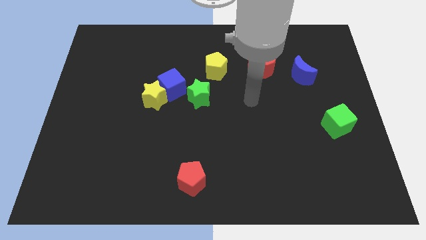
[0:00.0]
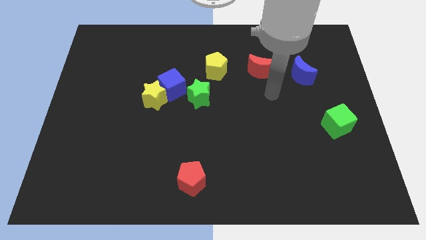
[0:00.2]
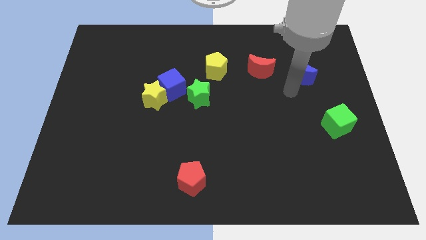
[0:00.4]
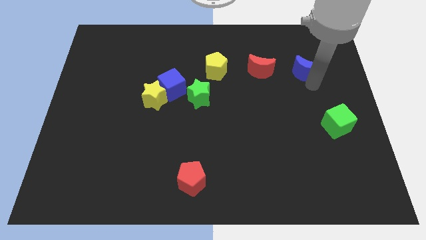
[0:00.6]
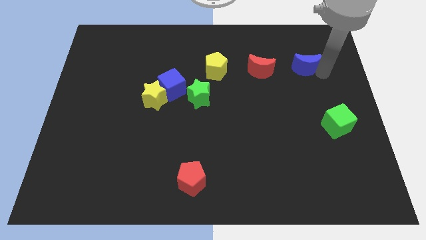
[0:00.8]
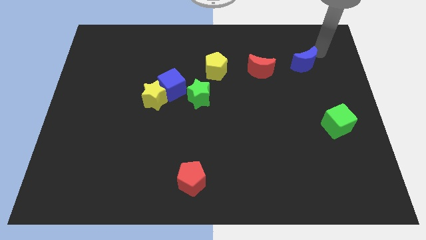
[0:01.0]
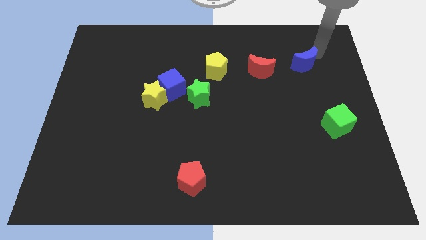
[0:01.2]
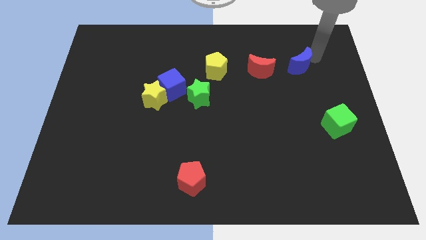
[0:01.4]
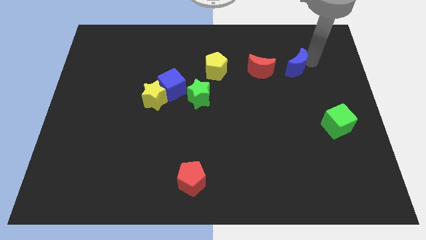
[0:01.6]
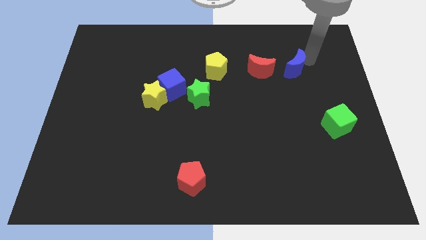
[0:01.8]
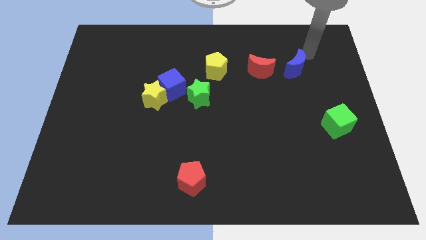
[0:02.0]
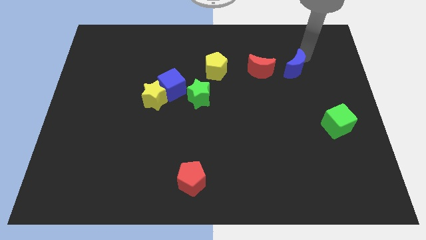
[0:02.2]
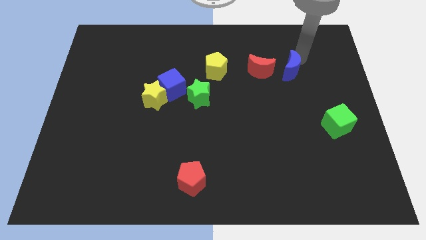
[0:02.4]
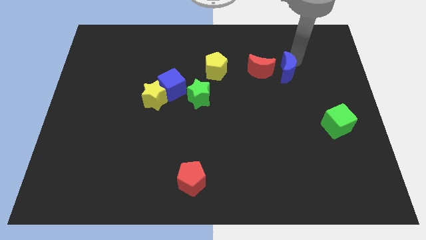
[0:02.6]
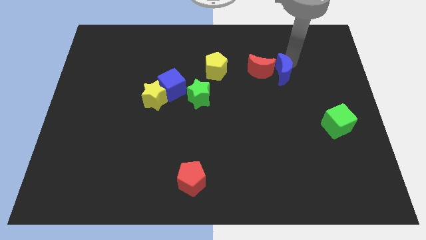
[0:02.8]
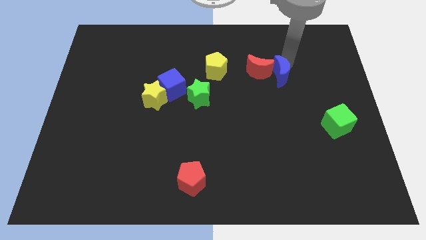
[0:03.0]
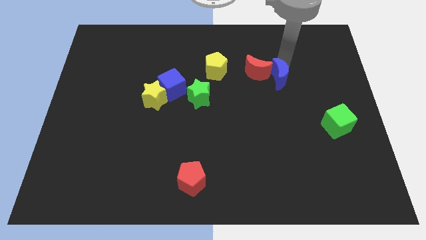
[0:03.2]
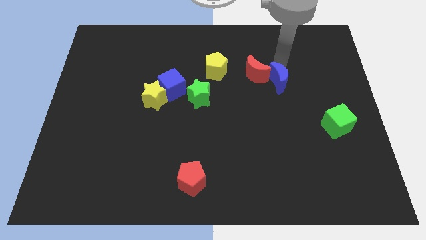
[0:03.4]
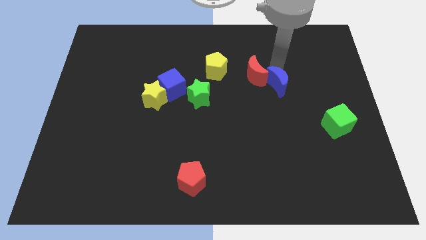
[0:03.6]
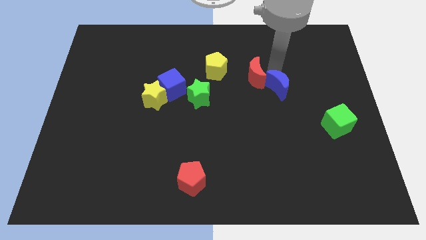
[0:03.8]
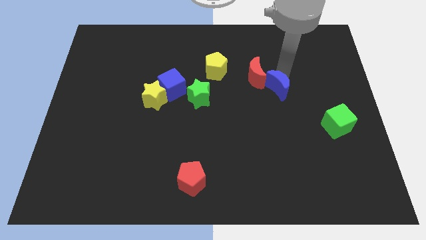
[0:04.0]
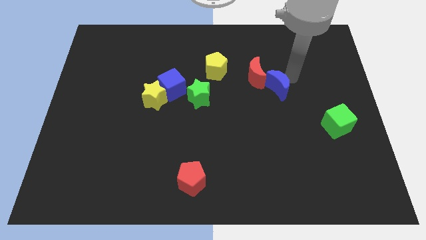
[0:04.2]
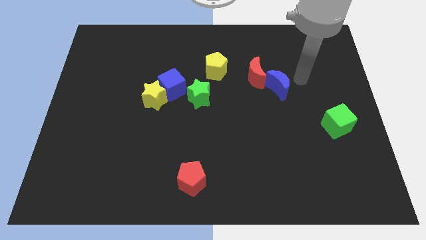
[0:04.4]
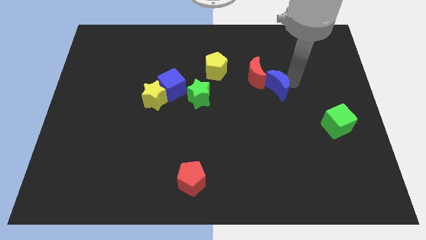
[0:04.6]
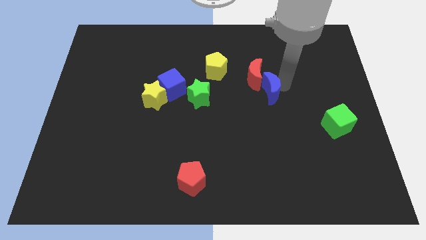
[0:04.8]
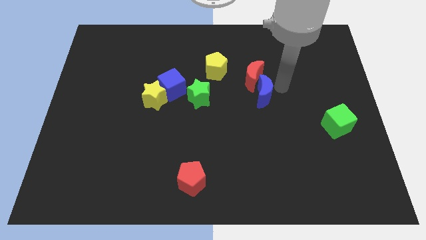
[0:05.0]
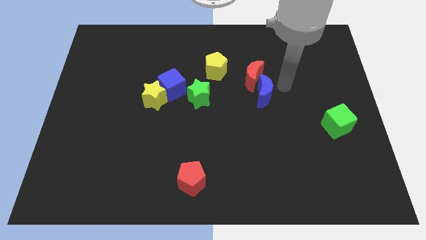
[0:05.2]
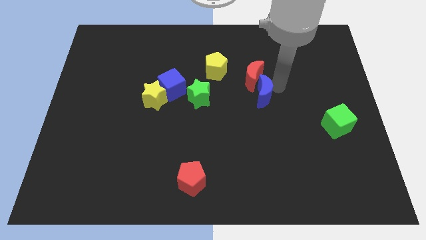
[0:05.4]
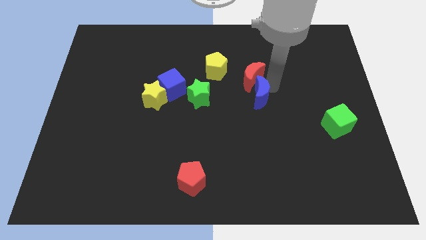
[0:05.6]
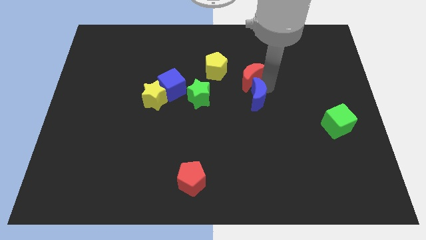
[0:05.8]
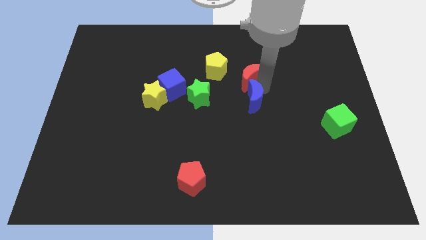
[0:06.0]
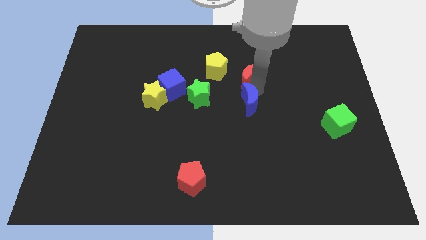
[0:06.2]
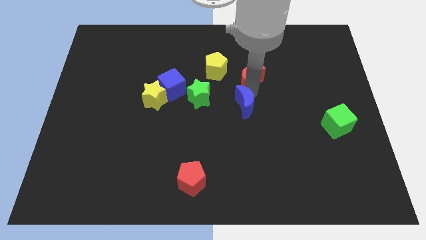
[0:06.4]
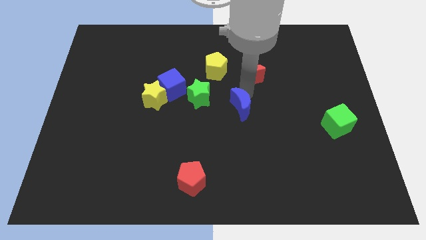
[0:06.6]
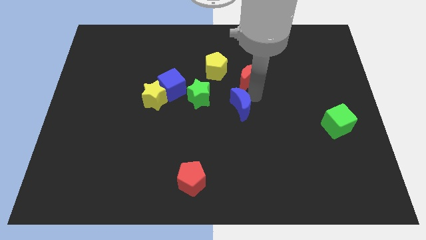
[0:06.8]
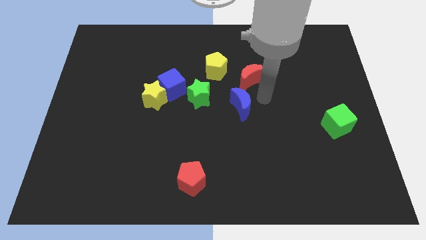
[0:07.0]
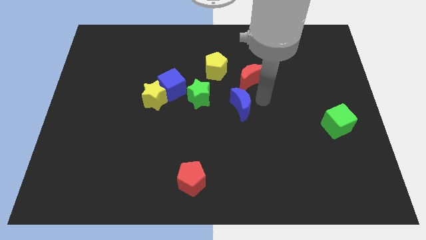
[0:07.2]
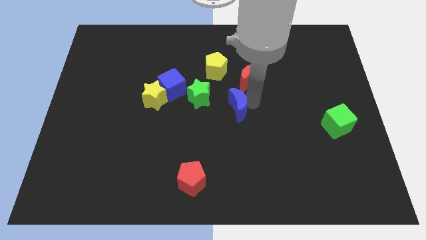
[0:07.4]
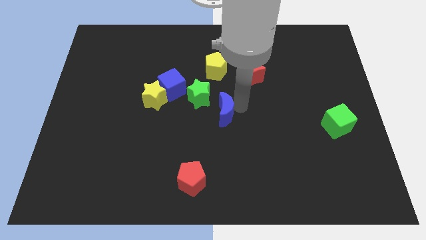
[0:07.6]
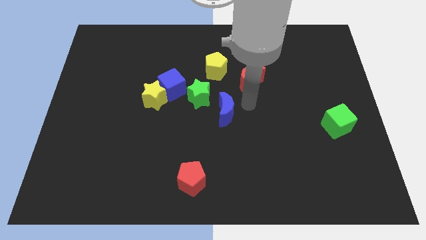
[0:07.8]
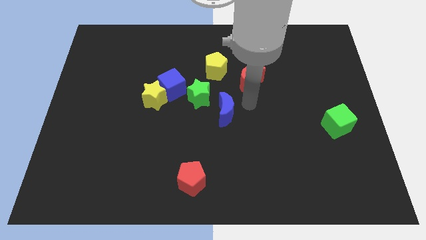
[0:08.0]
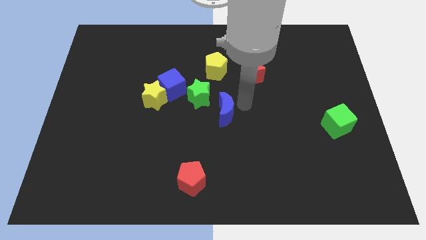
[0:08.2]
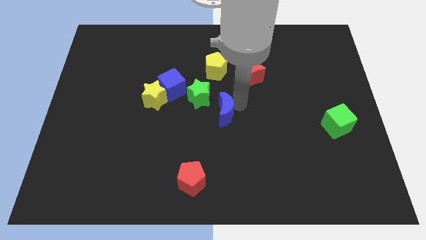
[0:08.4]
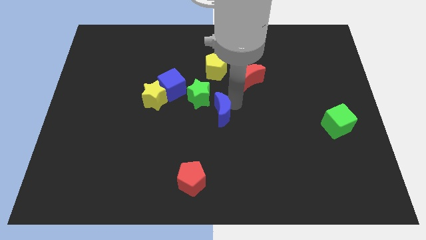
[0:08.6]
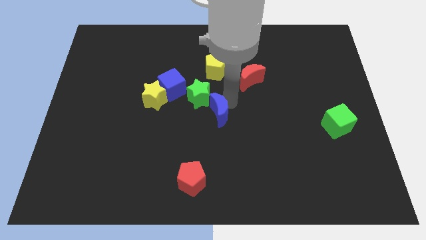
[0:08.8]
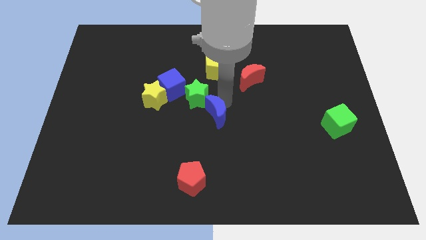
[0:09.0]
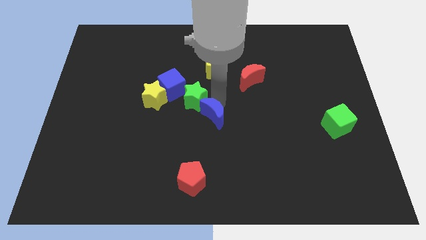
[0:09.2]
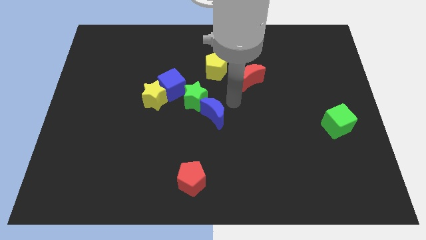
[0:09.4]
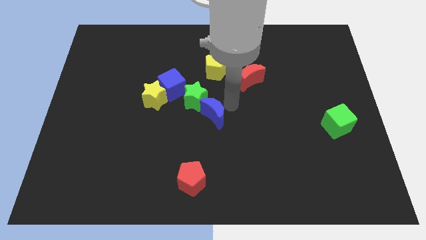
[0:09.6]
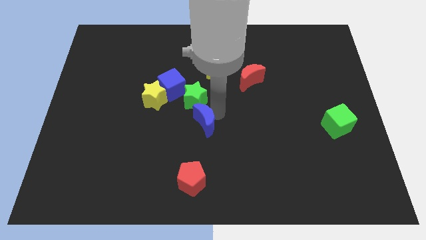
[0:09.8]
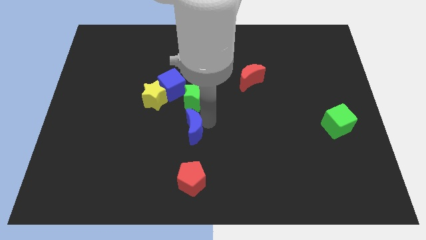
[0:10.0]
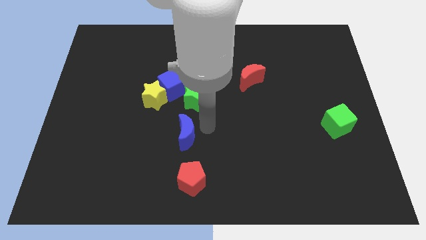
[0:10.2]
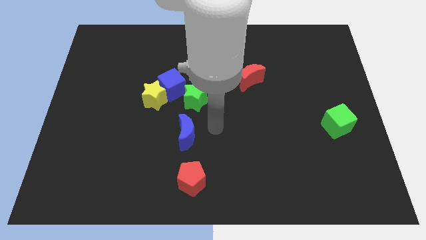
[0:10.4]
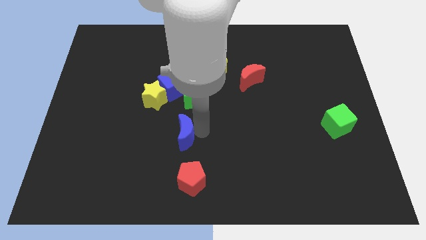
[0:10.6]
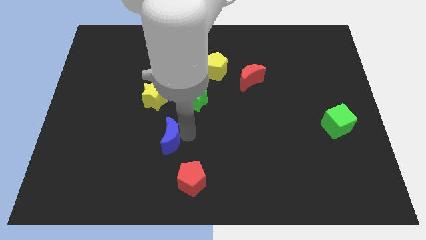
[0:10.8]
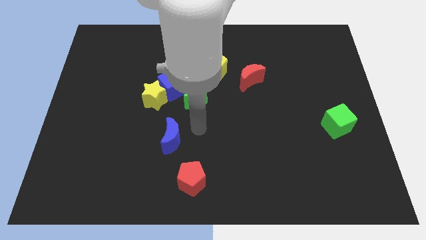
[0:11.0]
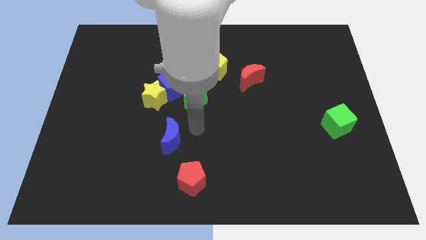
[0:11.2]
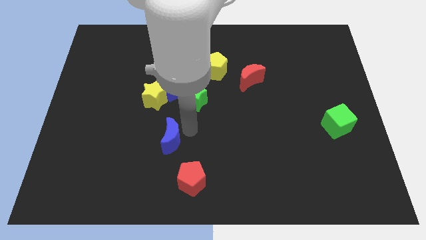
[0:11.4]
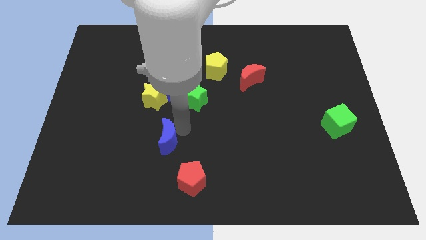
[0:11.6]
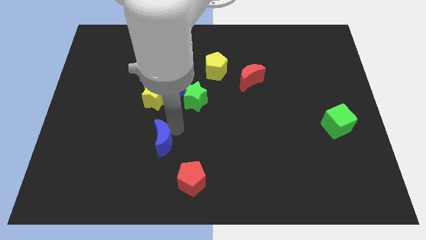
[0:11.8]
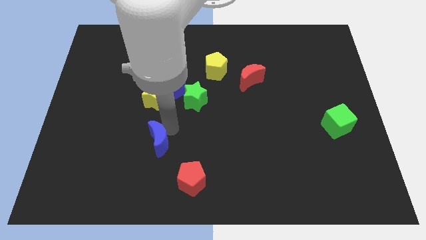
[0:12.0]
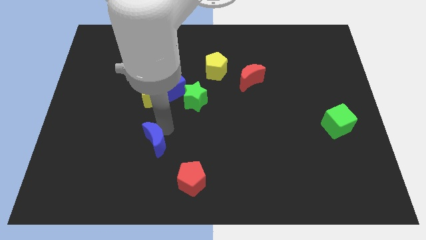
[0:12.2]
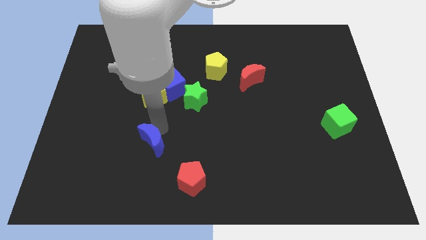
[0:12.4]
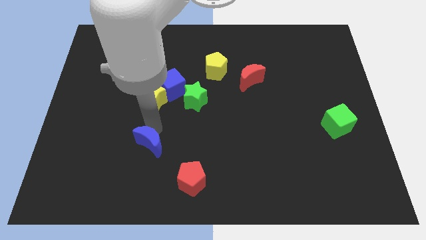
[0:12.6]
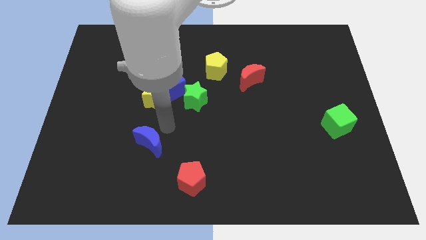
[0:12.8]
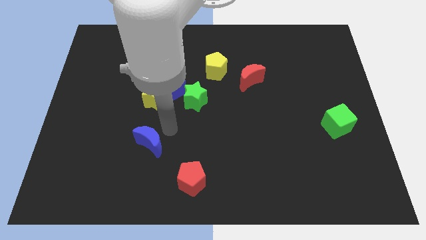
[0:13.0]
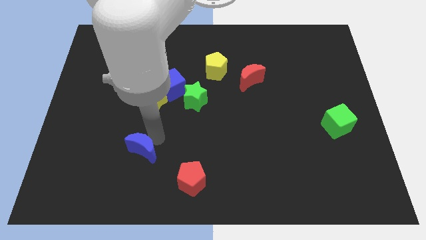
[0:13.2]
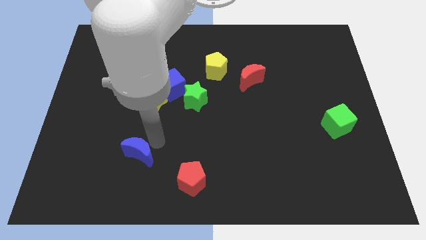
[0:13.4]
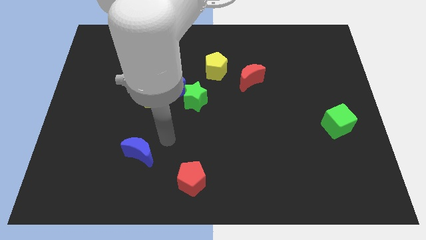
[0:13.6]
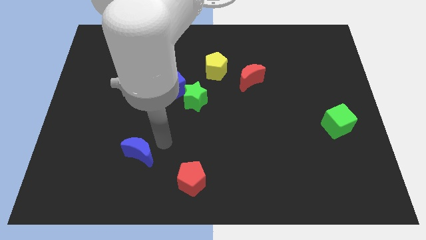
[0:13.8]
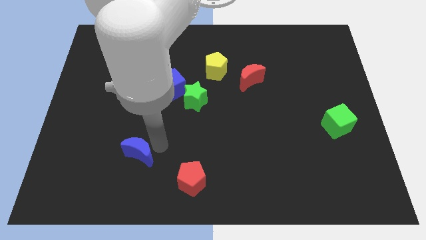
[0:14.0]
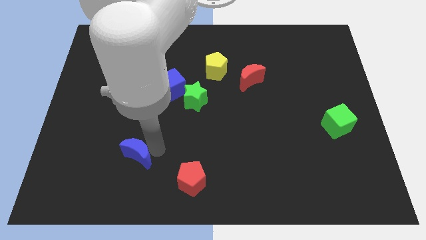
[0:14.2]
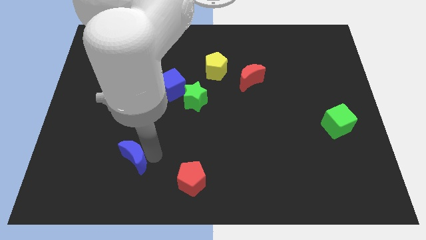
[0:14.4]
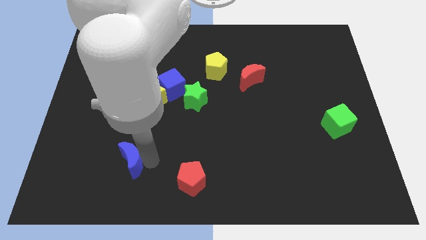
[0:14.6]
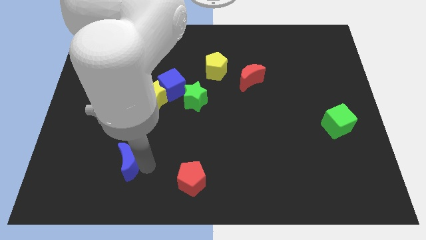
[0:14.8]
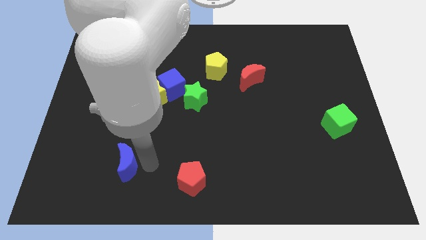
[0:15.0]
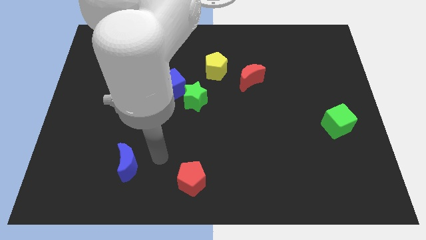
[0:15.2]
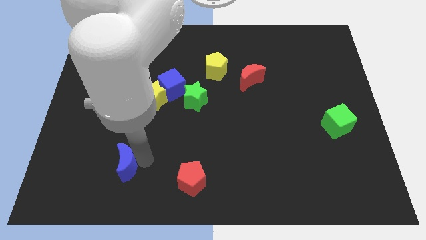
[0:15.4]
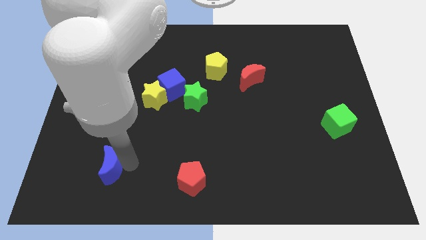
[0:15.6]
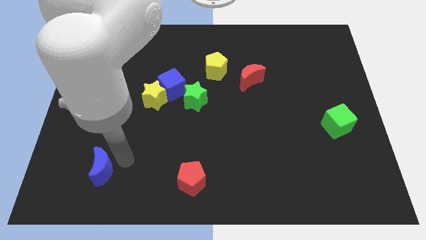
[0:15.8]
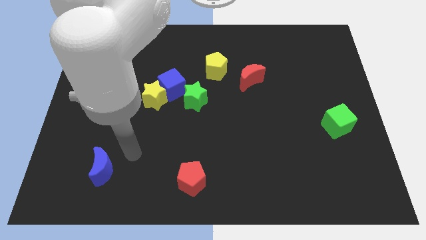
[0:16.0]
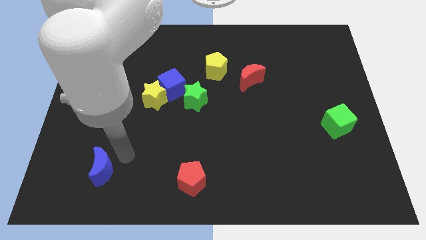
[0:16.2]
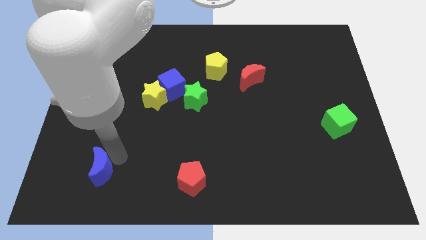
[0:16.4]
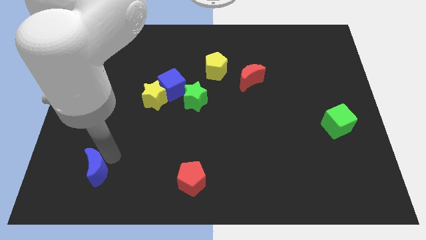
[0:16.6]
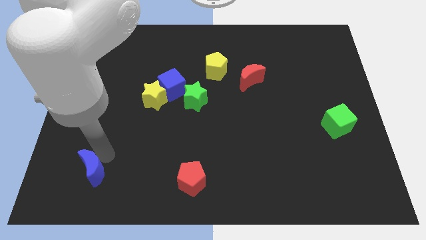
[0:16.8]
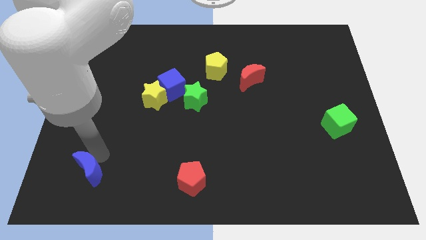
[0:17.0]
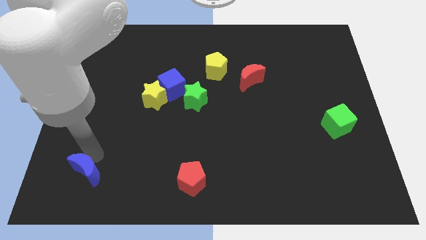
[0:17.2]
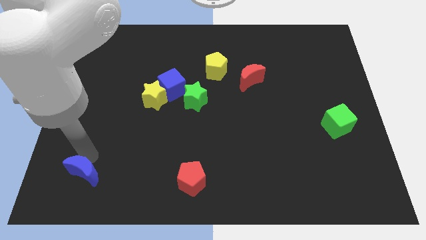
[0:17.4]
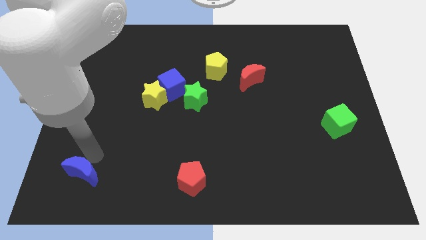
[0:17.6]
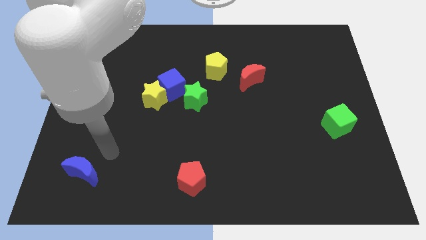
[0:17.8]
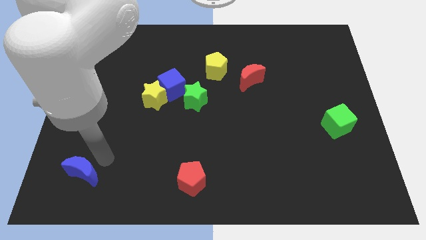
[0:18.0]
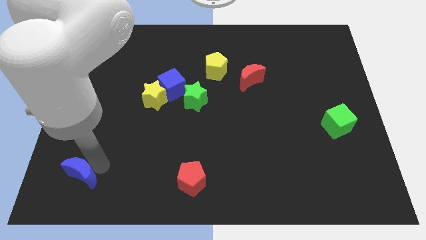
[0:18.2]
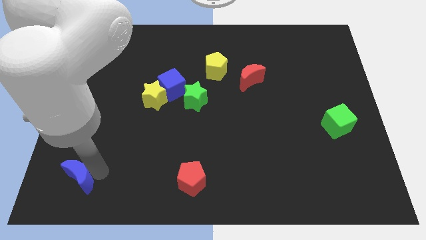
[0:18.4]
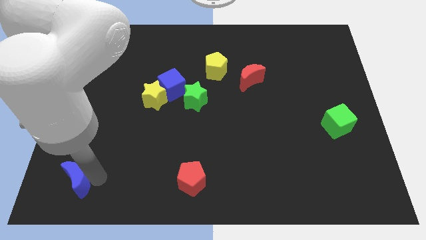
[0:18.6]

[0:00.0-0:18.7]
slide the blue moon to the bottom left corner
